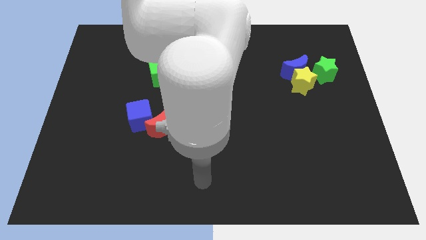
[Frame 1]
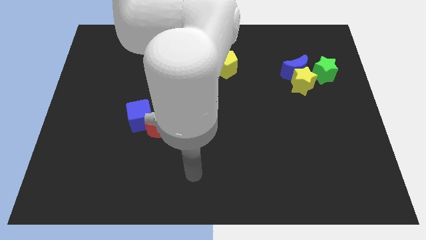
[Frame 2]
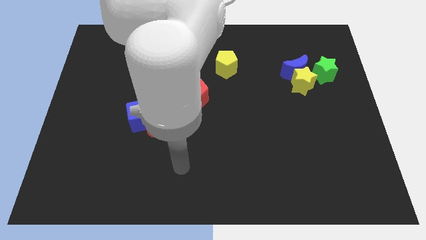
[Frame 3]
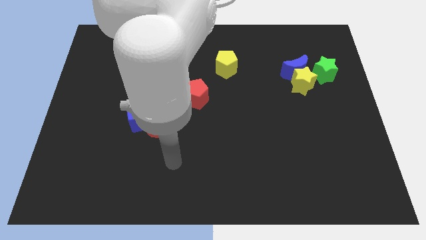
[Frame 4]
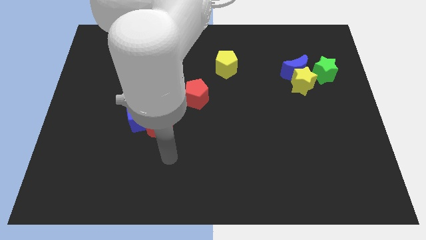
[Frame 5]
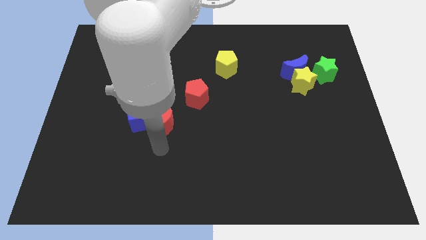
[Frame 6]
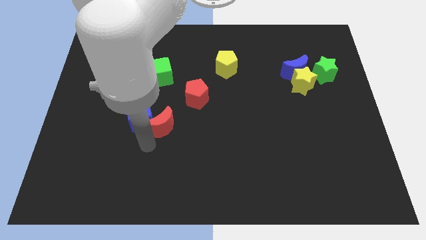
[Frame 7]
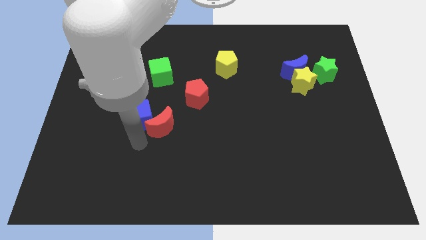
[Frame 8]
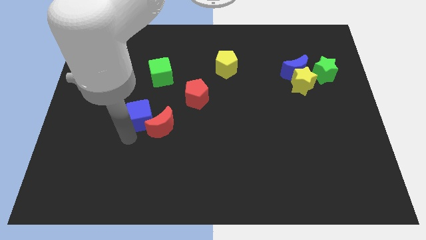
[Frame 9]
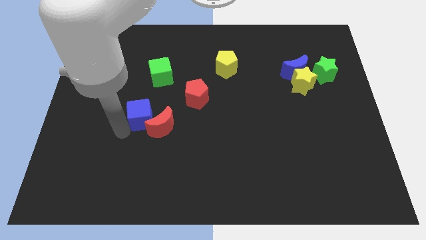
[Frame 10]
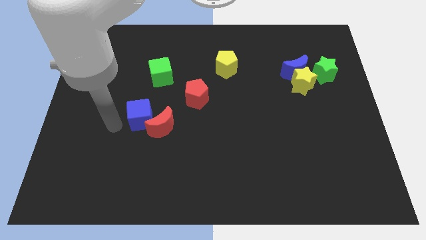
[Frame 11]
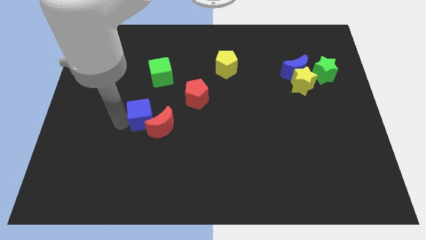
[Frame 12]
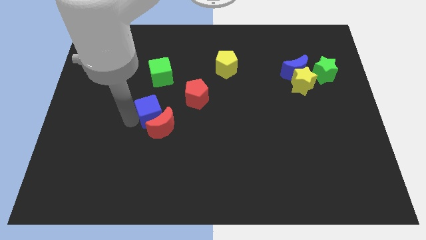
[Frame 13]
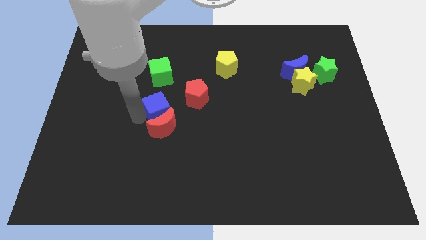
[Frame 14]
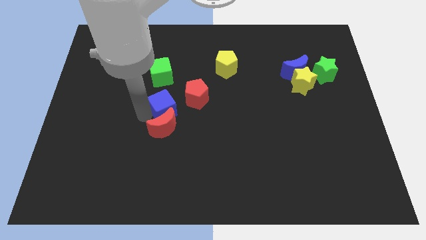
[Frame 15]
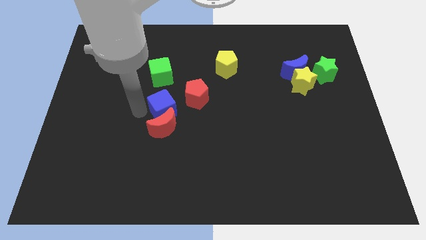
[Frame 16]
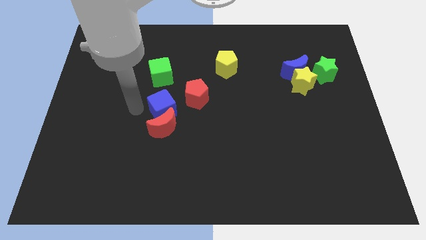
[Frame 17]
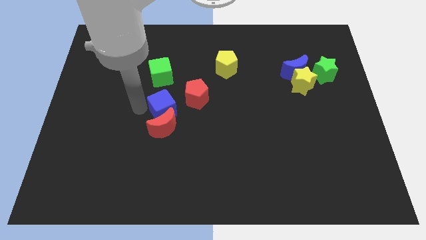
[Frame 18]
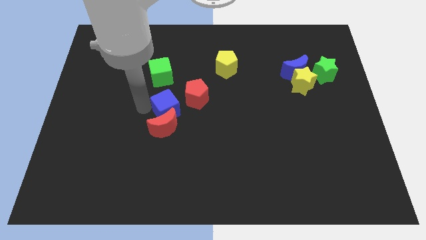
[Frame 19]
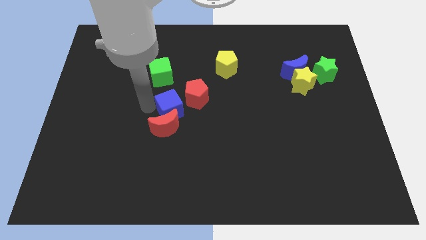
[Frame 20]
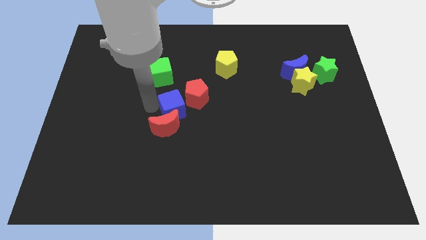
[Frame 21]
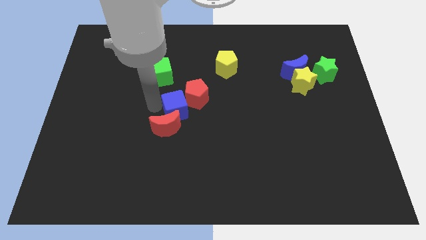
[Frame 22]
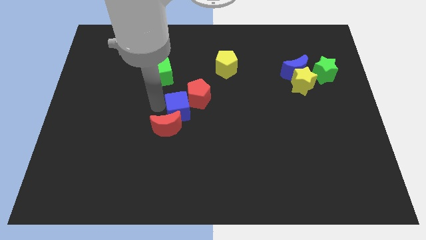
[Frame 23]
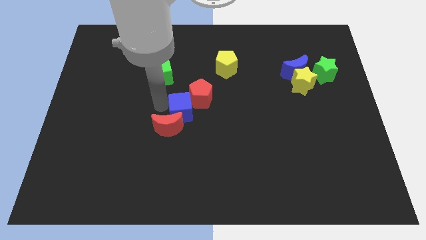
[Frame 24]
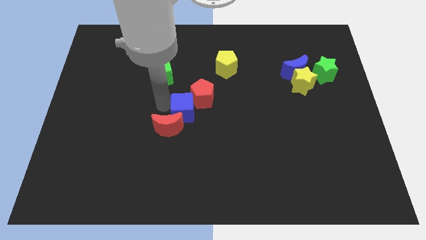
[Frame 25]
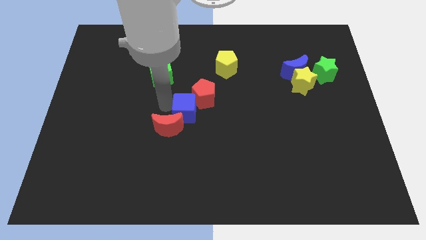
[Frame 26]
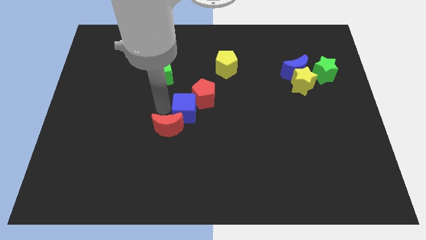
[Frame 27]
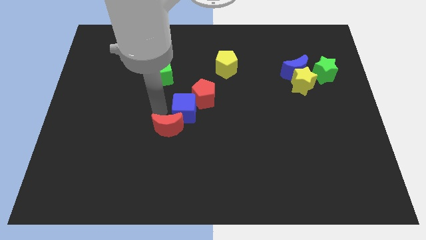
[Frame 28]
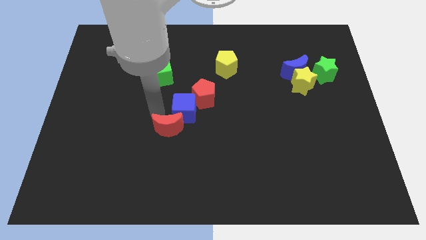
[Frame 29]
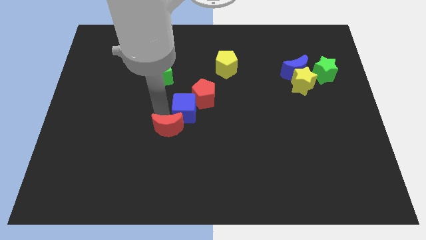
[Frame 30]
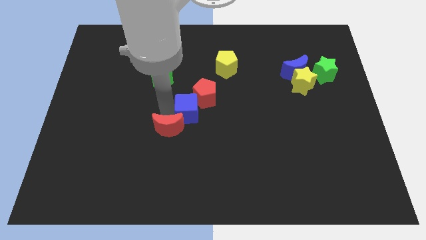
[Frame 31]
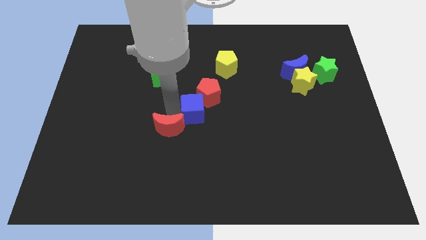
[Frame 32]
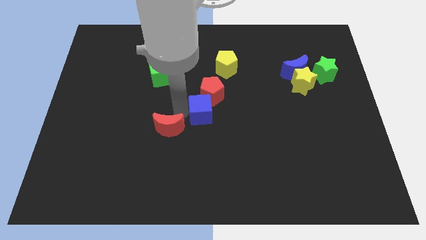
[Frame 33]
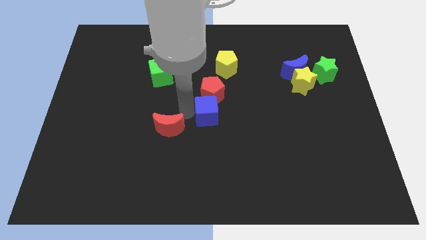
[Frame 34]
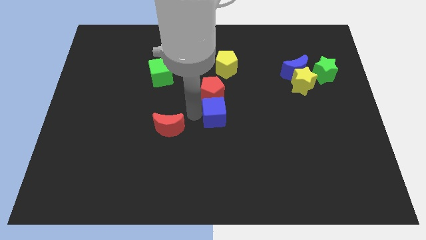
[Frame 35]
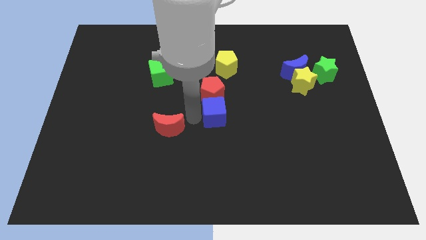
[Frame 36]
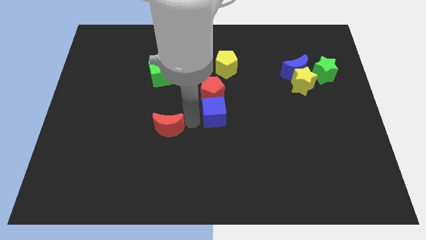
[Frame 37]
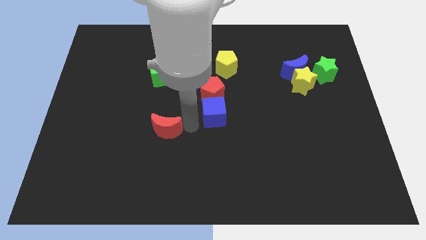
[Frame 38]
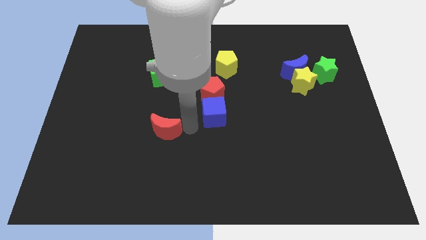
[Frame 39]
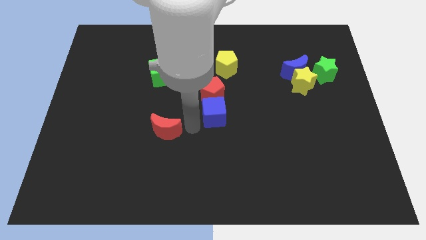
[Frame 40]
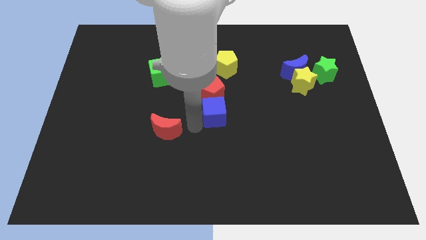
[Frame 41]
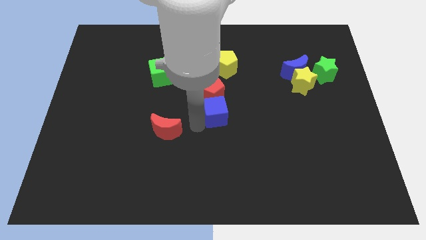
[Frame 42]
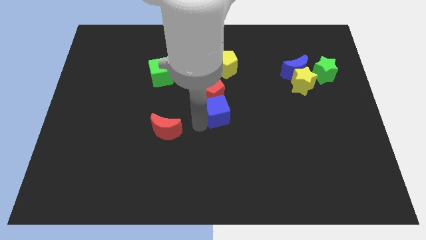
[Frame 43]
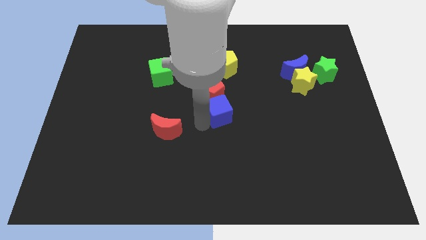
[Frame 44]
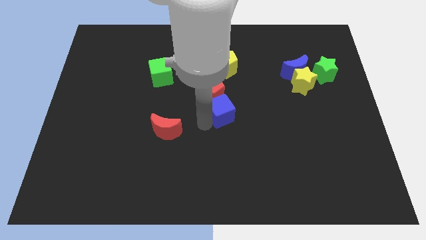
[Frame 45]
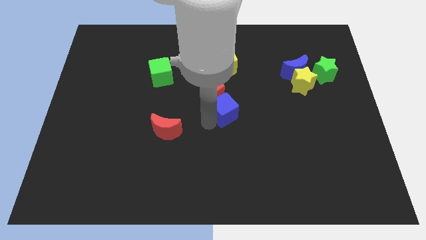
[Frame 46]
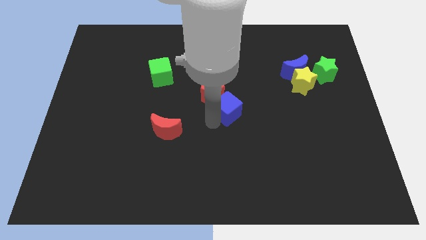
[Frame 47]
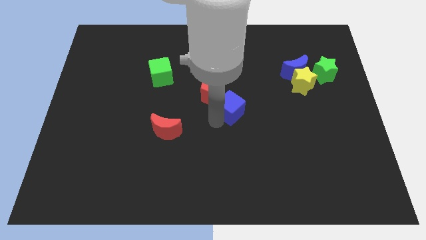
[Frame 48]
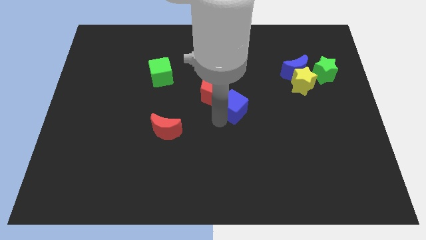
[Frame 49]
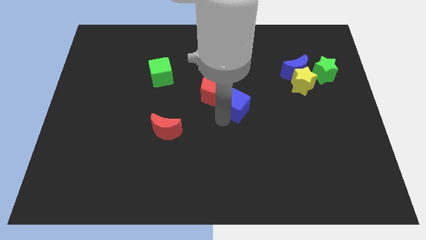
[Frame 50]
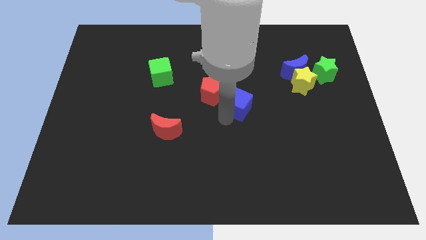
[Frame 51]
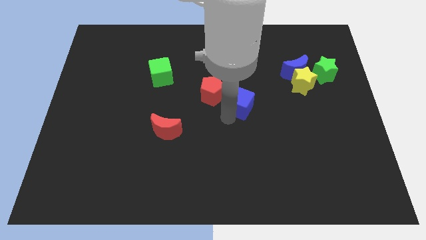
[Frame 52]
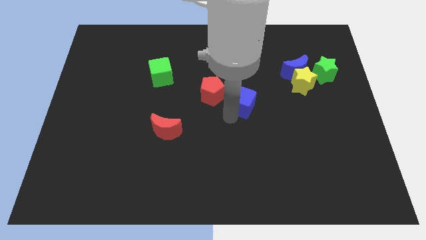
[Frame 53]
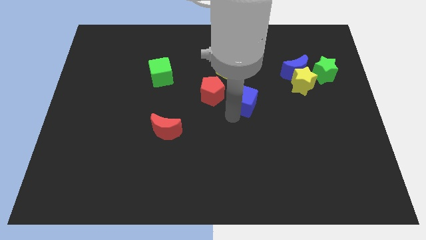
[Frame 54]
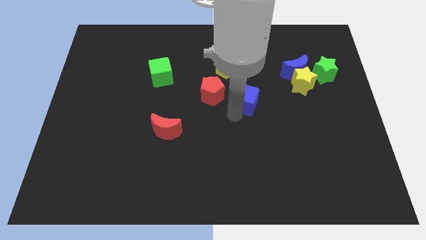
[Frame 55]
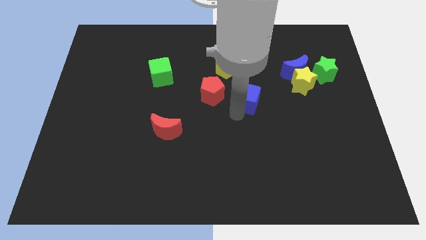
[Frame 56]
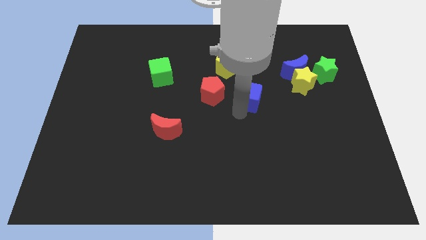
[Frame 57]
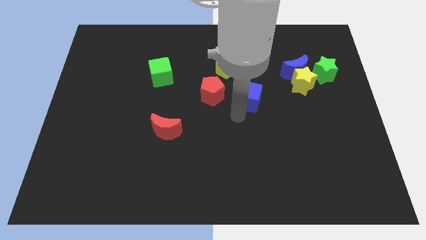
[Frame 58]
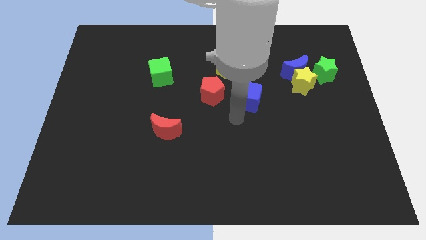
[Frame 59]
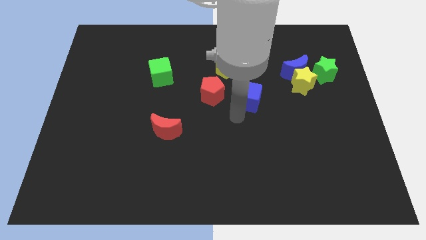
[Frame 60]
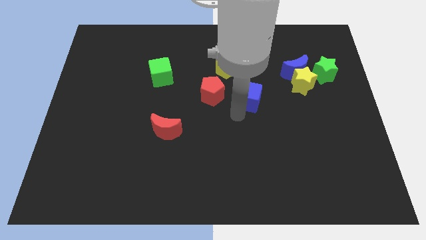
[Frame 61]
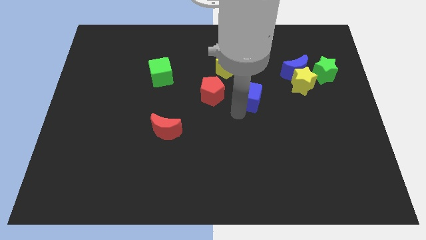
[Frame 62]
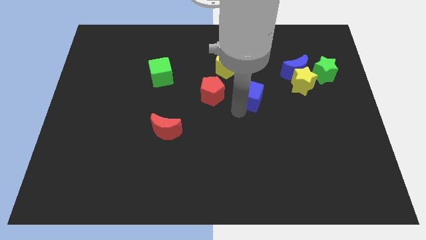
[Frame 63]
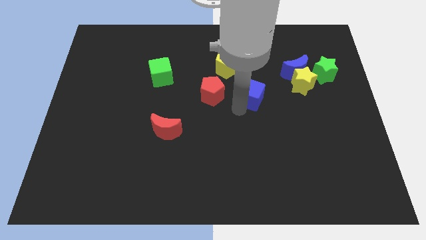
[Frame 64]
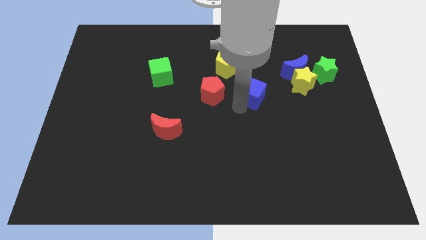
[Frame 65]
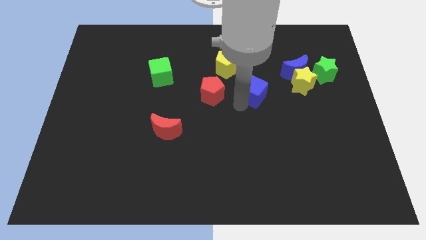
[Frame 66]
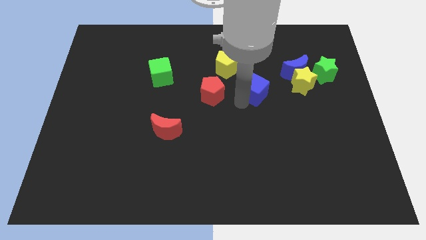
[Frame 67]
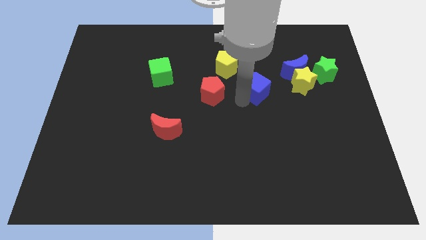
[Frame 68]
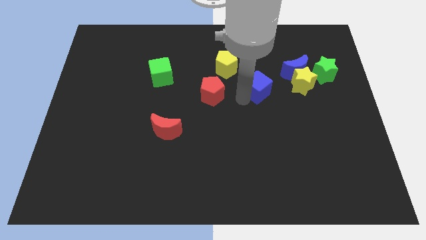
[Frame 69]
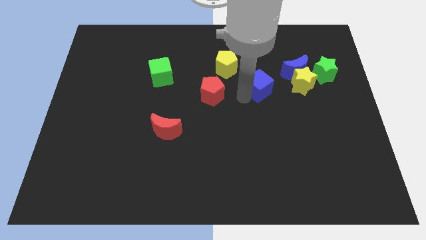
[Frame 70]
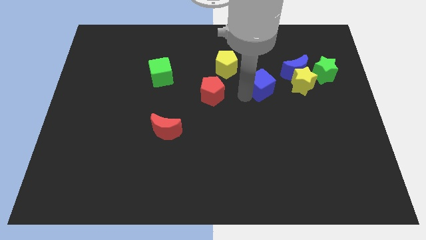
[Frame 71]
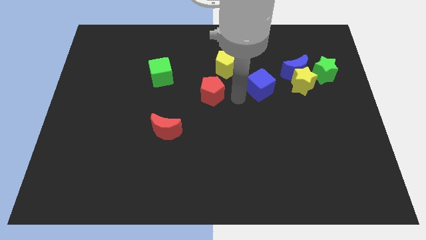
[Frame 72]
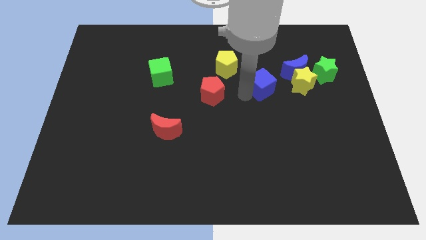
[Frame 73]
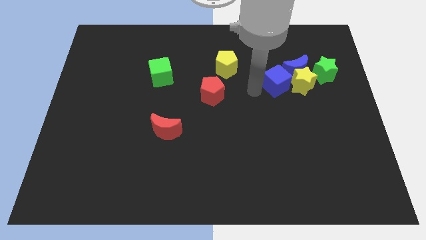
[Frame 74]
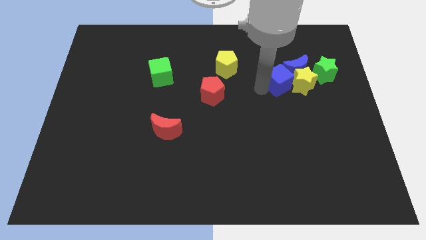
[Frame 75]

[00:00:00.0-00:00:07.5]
slide the blue cube towards the blue moon

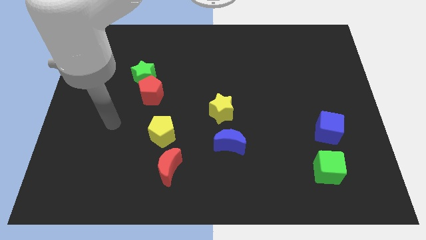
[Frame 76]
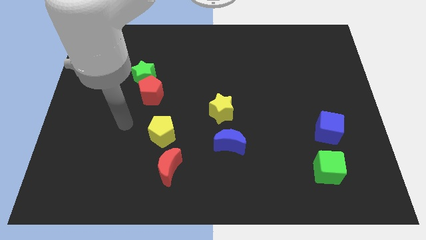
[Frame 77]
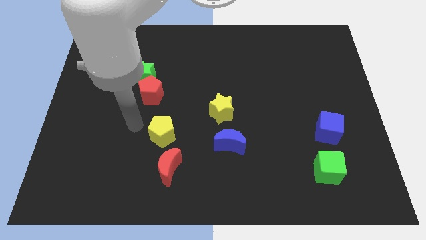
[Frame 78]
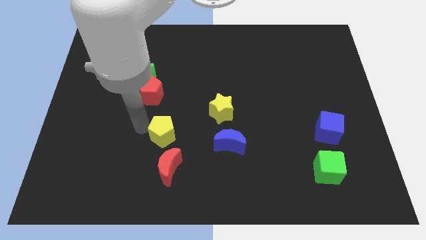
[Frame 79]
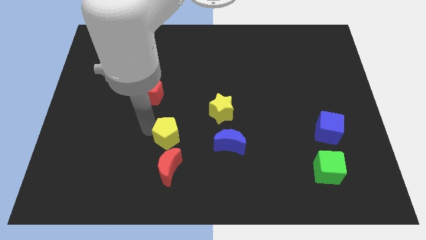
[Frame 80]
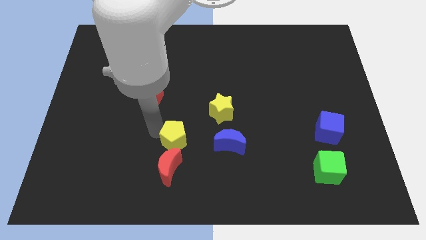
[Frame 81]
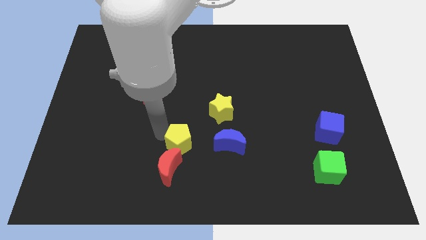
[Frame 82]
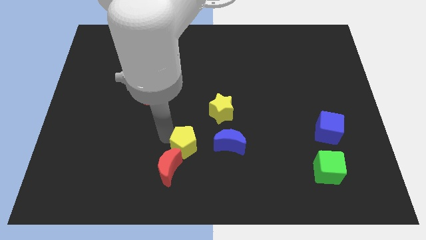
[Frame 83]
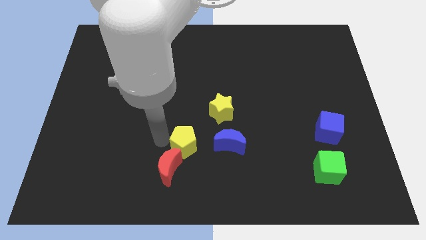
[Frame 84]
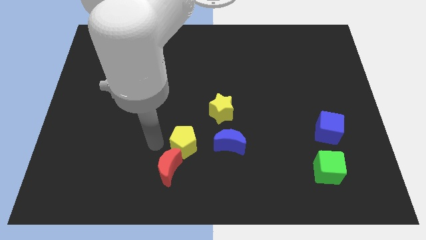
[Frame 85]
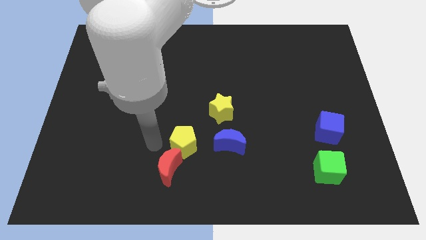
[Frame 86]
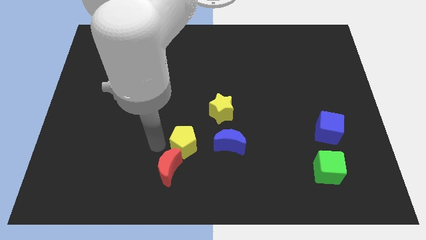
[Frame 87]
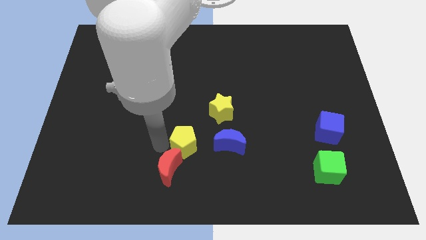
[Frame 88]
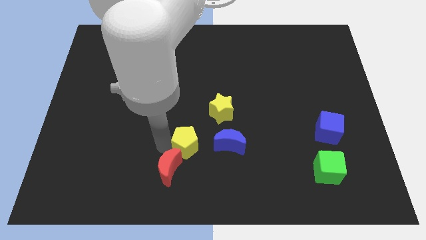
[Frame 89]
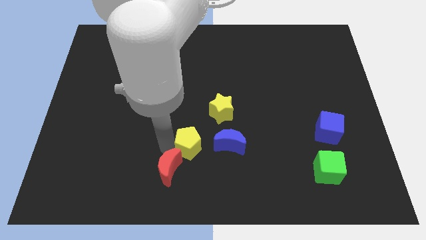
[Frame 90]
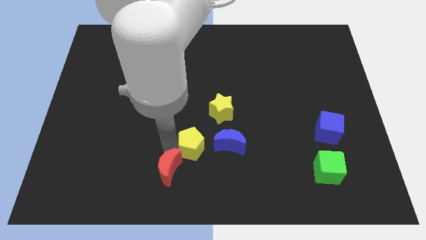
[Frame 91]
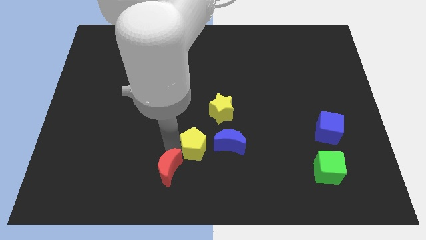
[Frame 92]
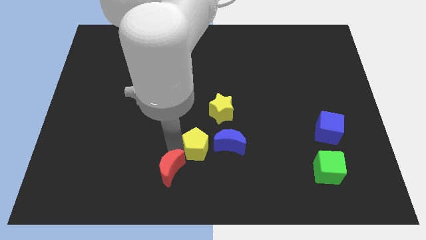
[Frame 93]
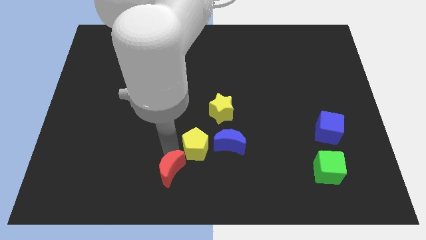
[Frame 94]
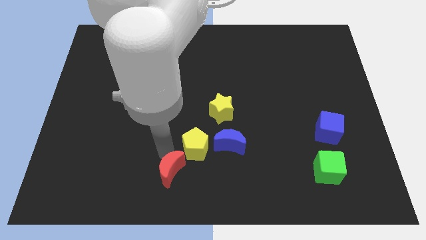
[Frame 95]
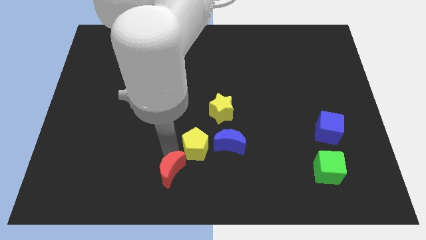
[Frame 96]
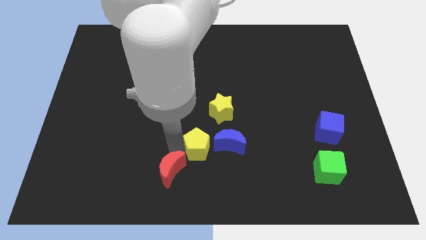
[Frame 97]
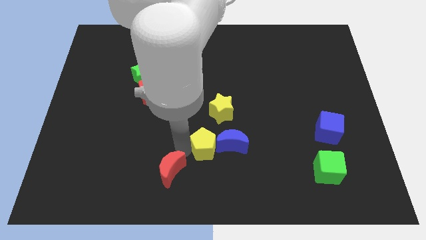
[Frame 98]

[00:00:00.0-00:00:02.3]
push the yellow pentagon close to the blue moon
